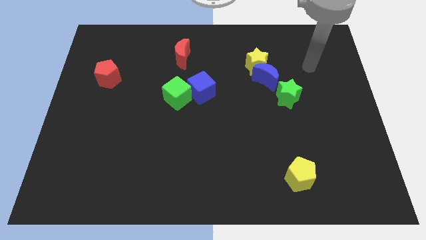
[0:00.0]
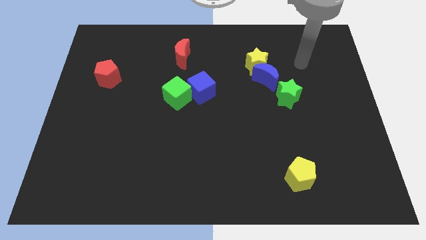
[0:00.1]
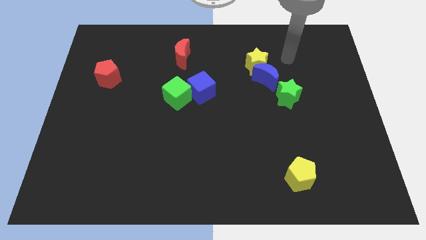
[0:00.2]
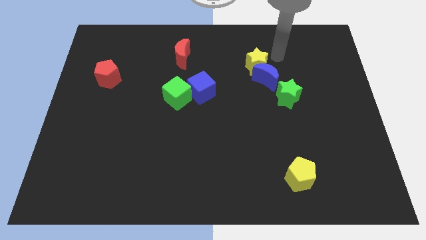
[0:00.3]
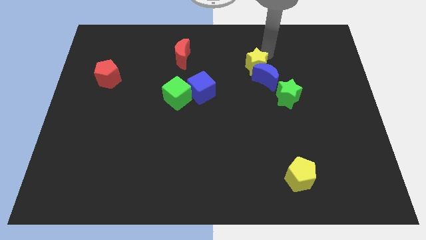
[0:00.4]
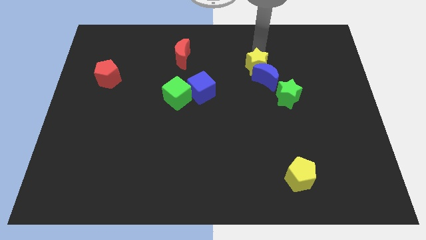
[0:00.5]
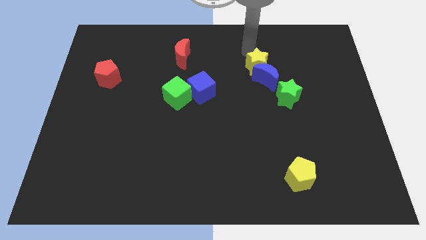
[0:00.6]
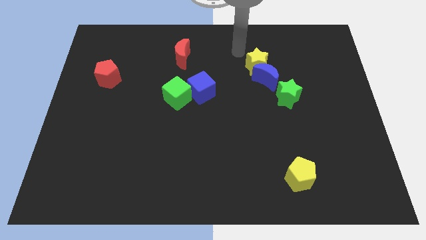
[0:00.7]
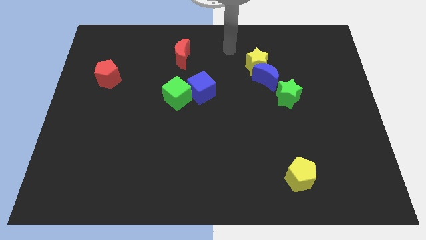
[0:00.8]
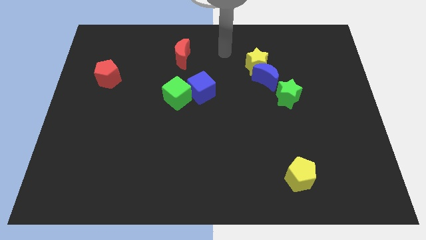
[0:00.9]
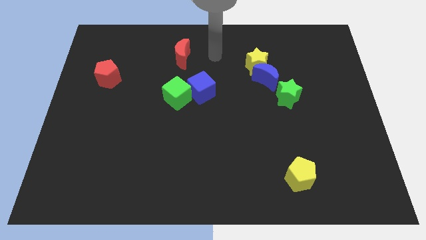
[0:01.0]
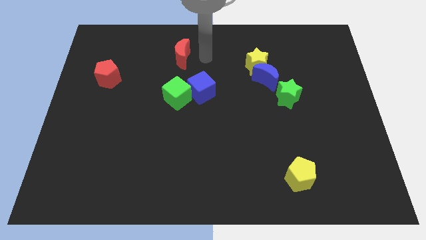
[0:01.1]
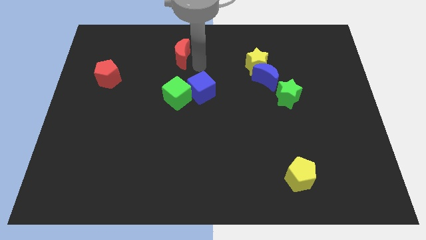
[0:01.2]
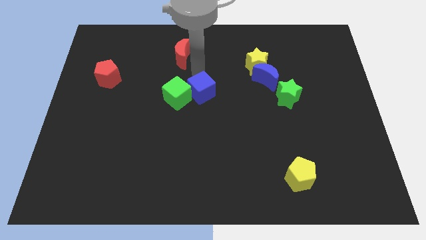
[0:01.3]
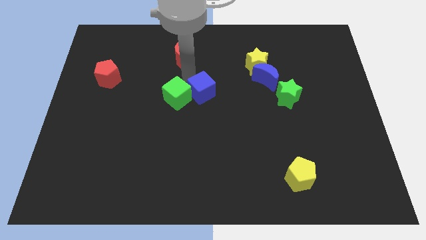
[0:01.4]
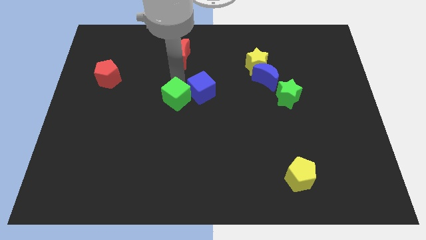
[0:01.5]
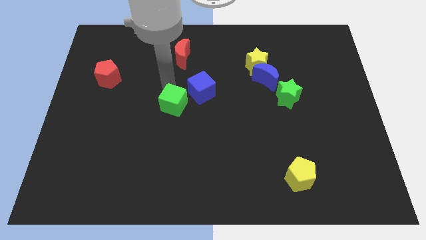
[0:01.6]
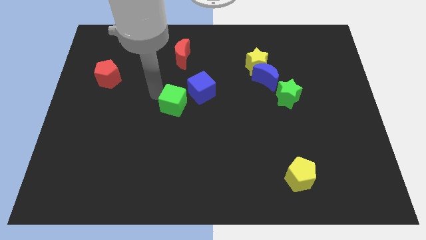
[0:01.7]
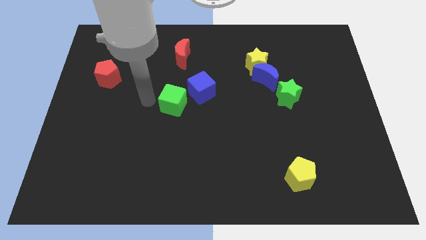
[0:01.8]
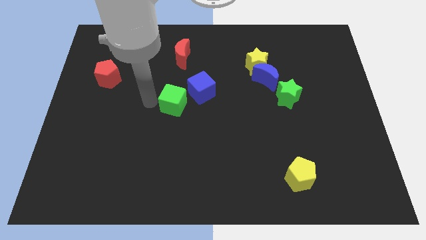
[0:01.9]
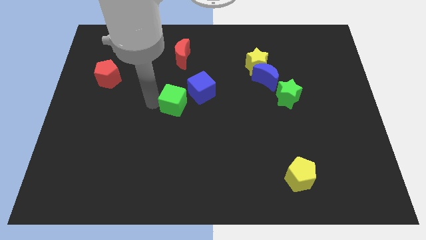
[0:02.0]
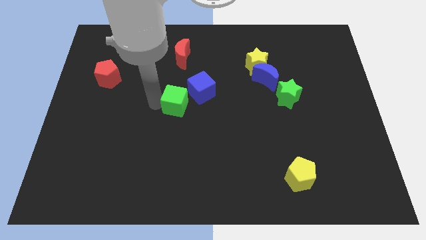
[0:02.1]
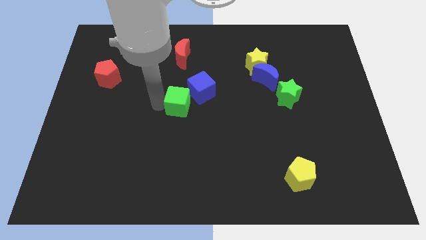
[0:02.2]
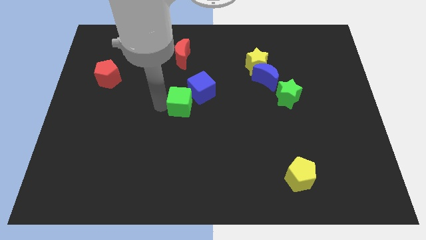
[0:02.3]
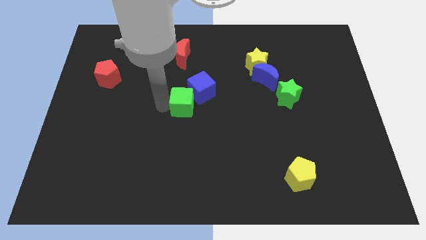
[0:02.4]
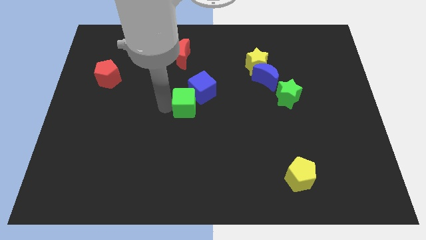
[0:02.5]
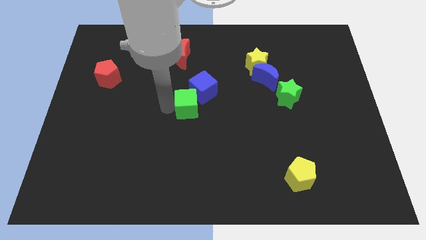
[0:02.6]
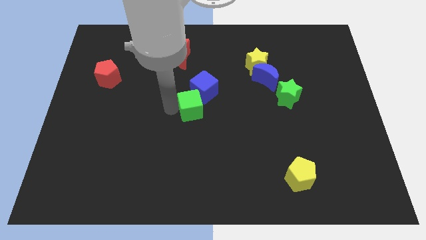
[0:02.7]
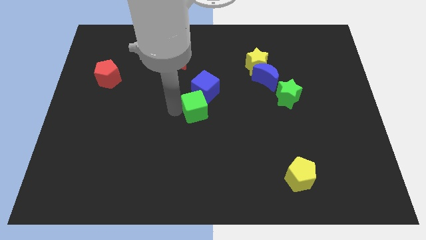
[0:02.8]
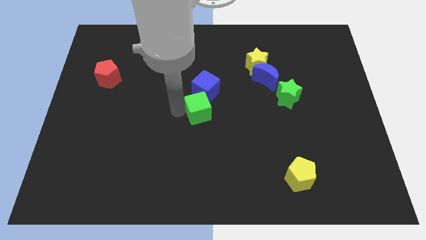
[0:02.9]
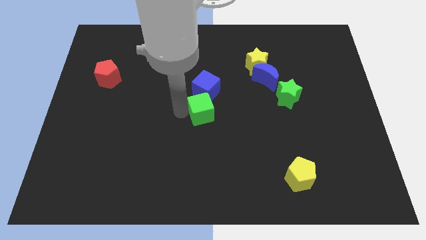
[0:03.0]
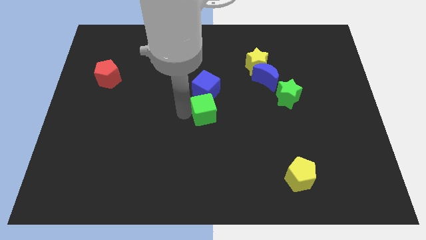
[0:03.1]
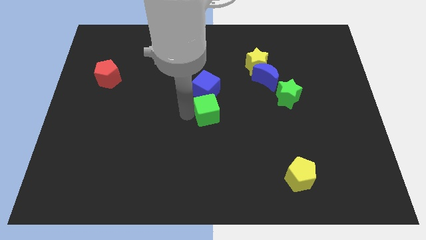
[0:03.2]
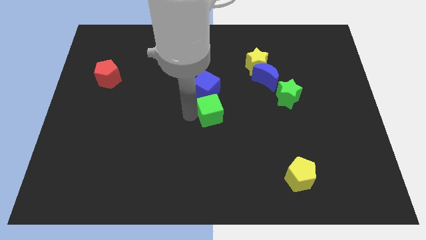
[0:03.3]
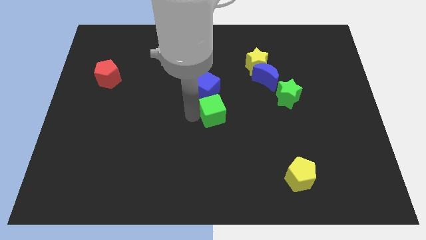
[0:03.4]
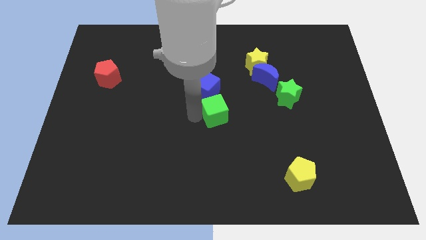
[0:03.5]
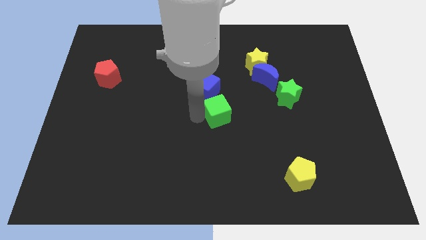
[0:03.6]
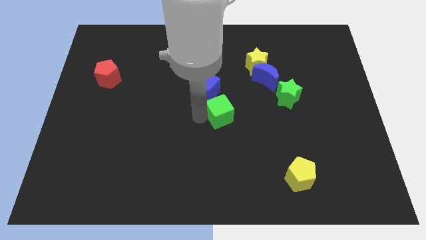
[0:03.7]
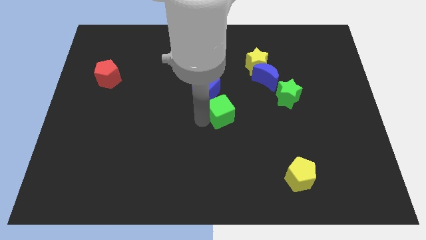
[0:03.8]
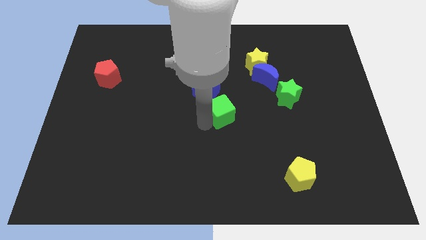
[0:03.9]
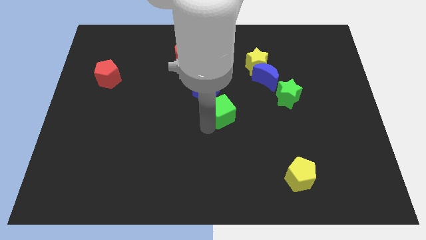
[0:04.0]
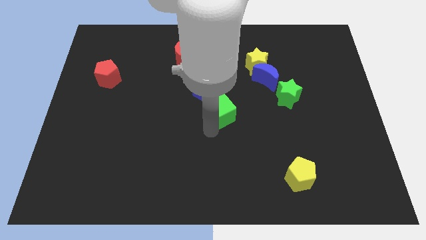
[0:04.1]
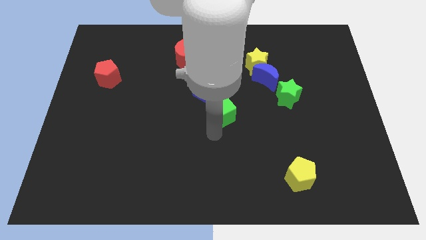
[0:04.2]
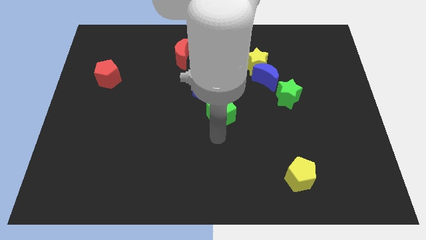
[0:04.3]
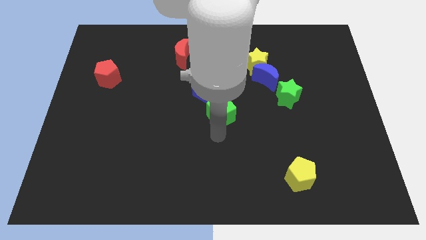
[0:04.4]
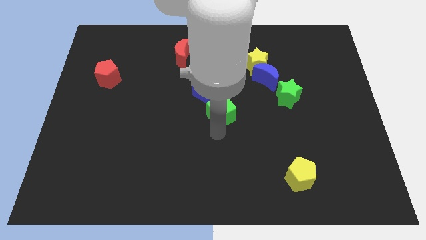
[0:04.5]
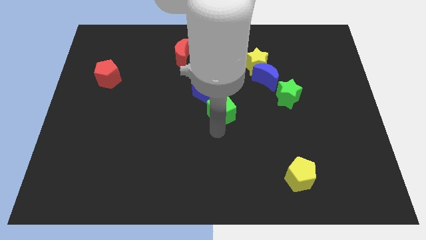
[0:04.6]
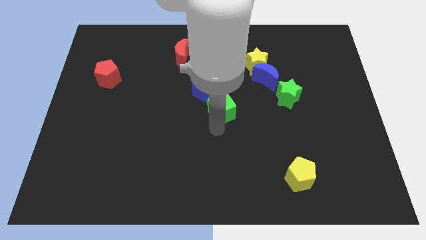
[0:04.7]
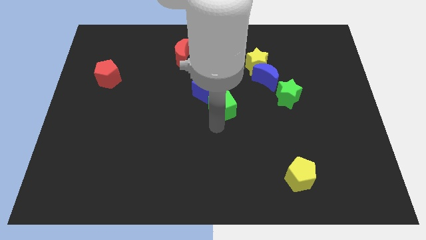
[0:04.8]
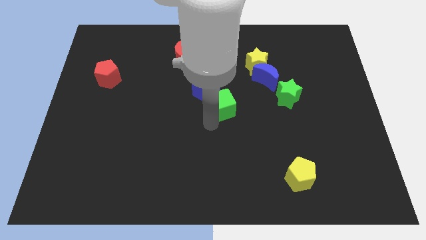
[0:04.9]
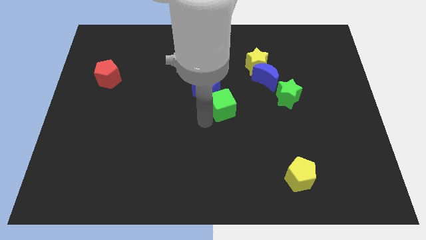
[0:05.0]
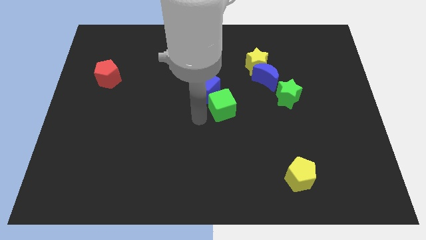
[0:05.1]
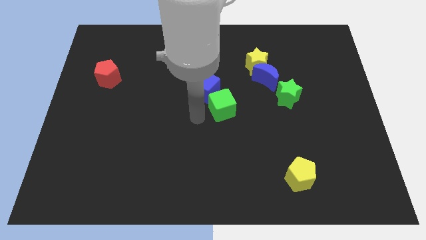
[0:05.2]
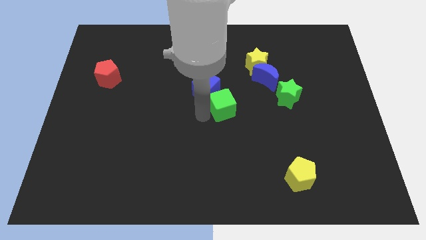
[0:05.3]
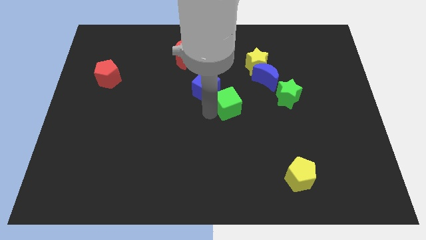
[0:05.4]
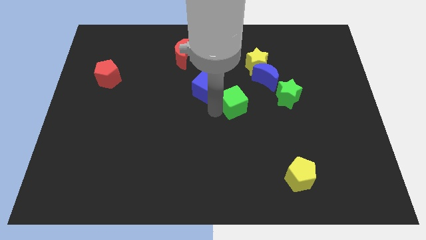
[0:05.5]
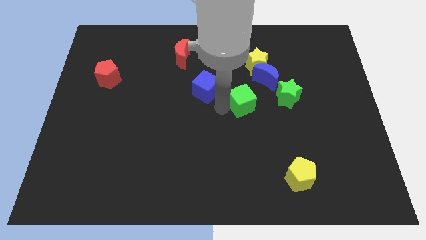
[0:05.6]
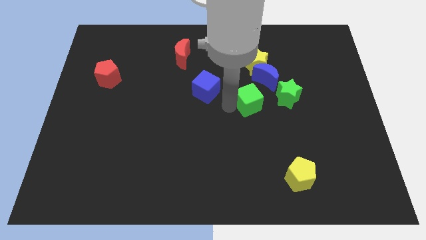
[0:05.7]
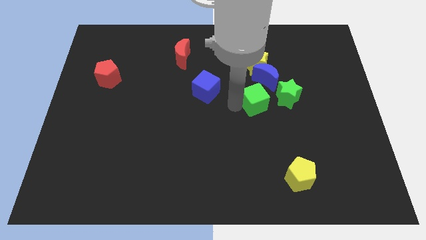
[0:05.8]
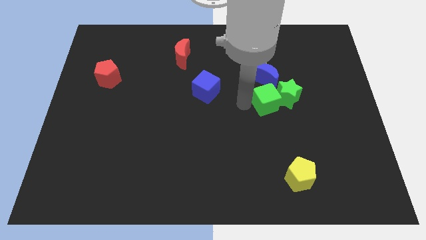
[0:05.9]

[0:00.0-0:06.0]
move the green cube towards the green star

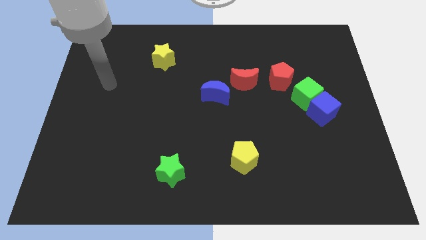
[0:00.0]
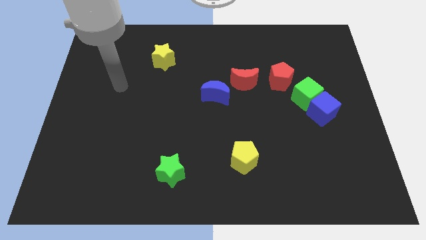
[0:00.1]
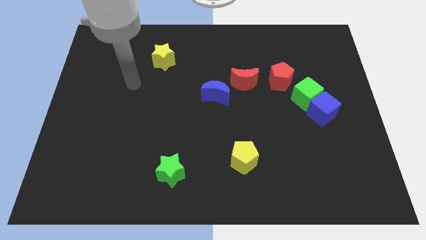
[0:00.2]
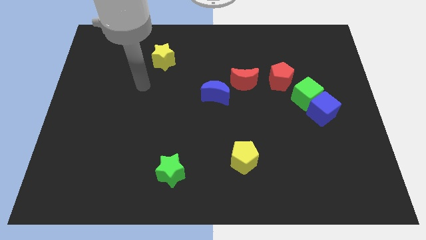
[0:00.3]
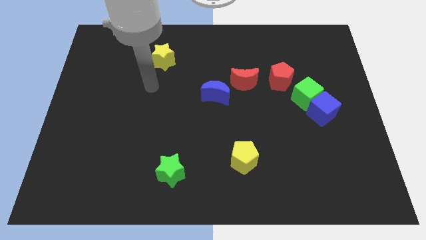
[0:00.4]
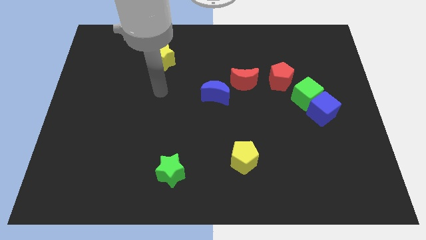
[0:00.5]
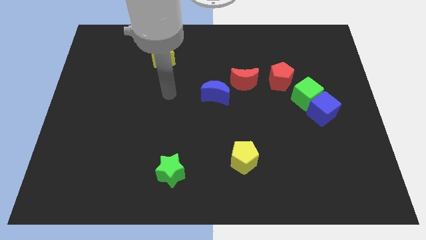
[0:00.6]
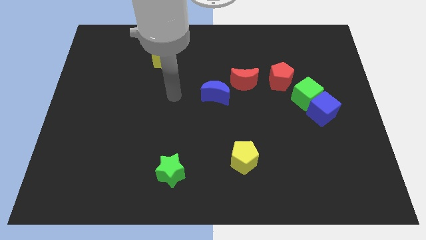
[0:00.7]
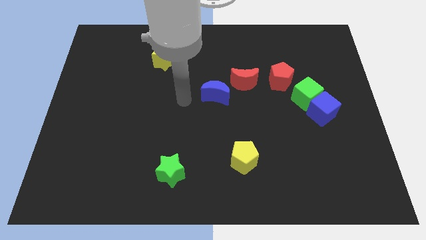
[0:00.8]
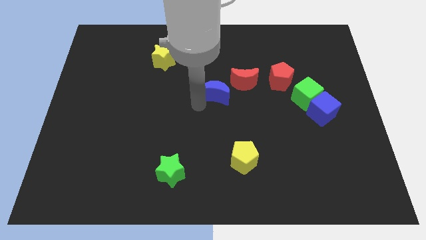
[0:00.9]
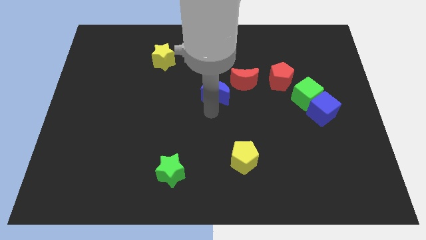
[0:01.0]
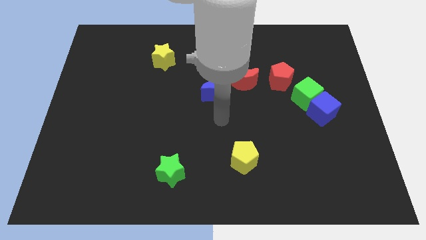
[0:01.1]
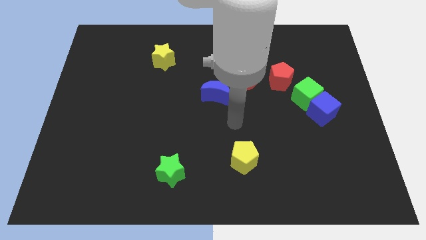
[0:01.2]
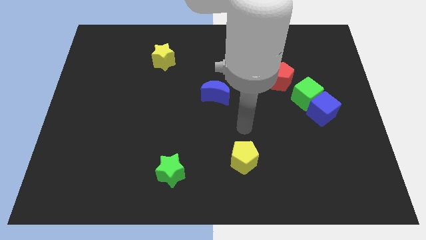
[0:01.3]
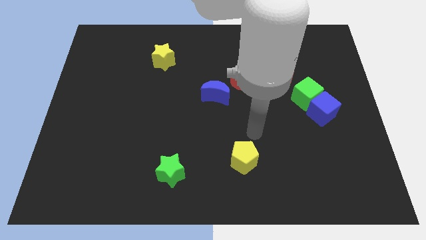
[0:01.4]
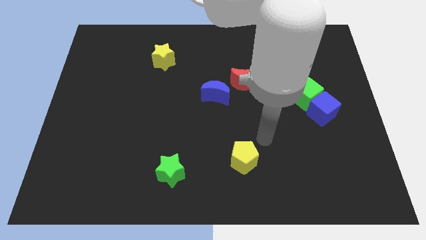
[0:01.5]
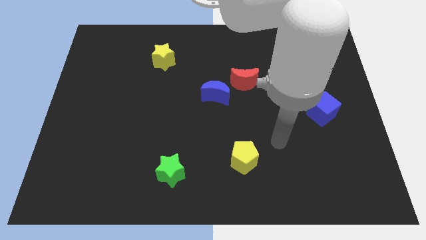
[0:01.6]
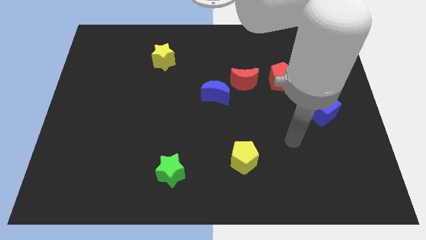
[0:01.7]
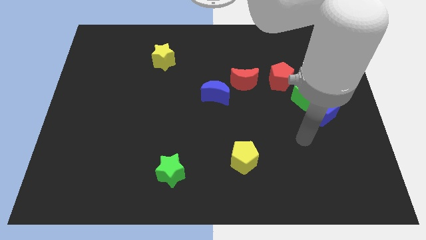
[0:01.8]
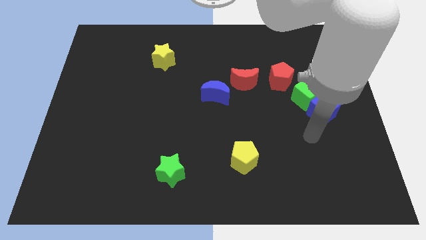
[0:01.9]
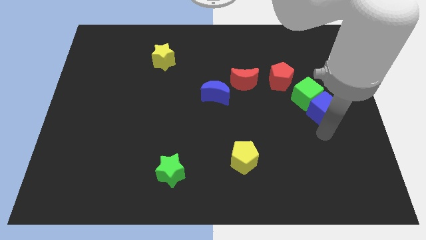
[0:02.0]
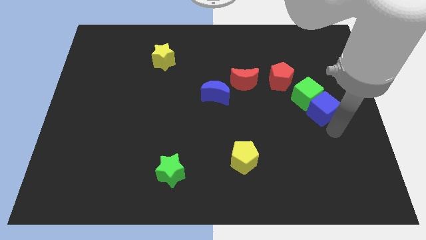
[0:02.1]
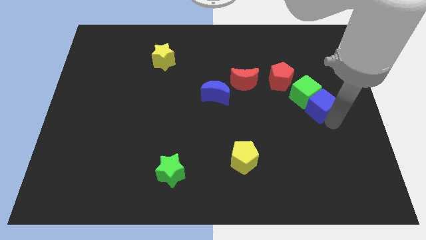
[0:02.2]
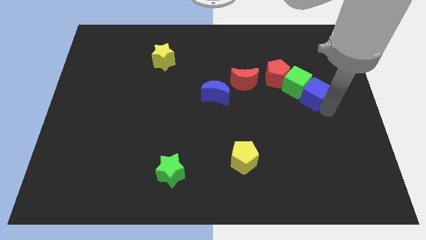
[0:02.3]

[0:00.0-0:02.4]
push the green cube to the red pentagon
